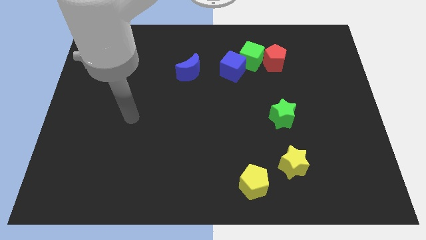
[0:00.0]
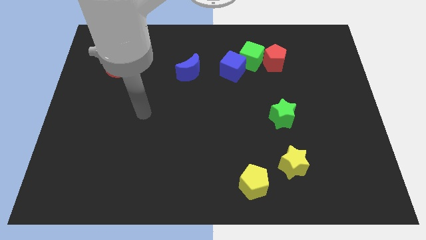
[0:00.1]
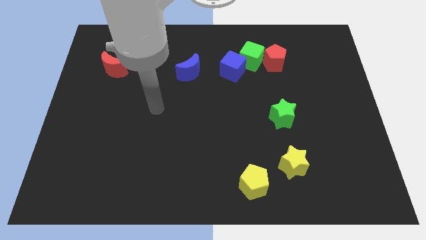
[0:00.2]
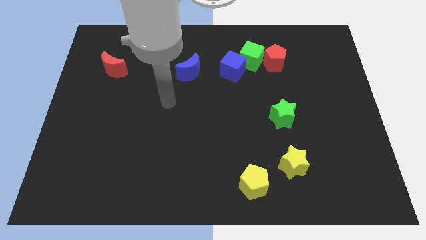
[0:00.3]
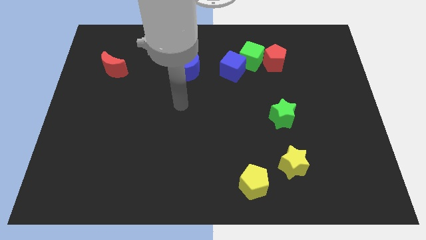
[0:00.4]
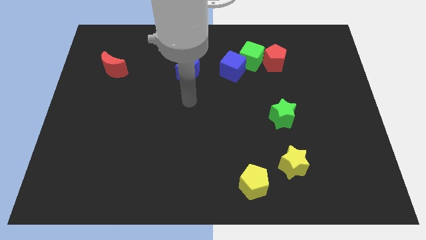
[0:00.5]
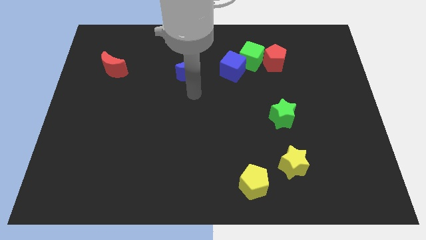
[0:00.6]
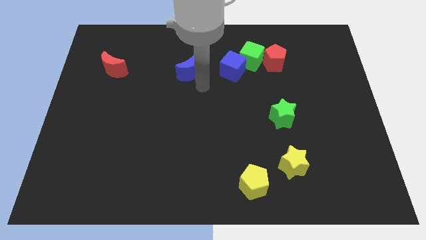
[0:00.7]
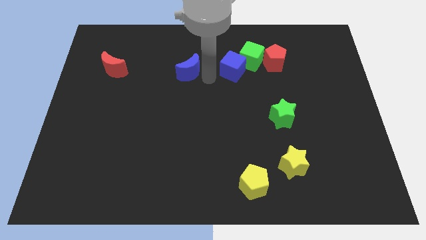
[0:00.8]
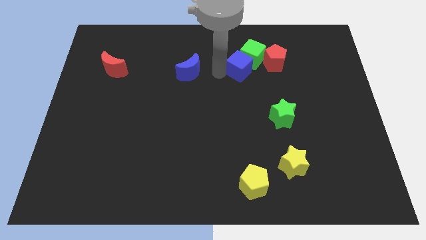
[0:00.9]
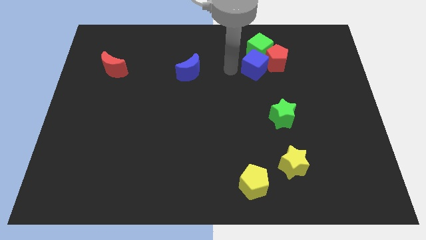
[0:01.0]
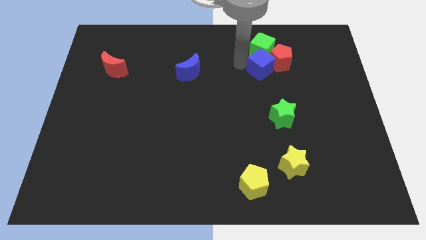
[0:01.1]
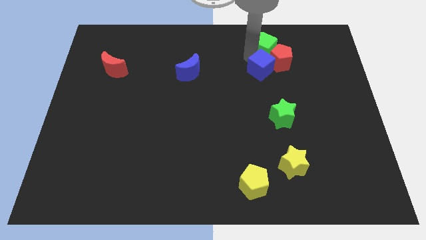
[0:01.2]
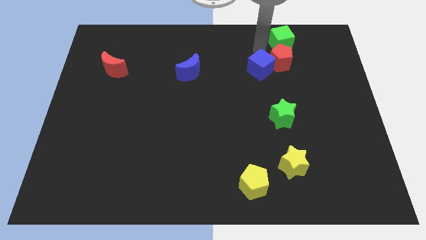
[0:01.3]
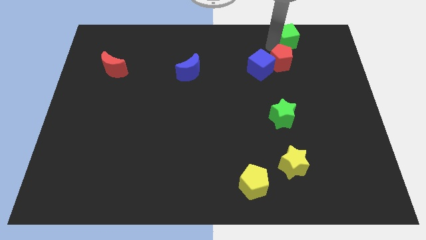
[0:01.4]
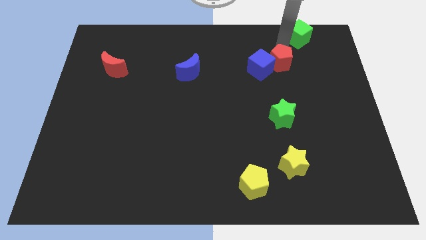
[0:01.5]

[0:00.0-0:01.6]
pull the red pentagon apart from the green cube

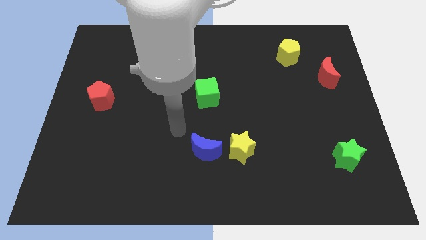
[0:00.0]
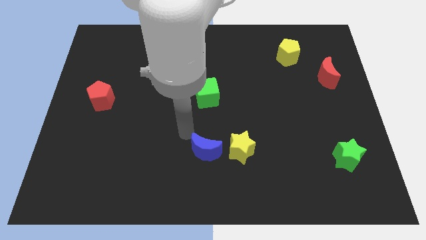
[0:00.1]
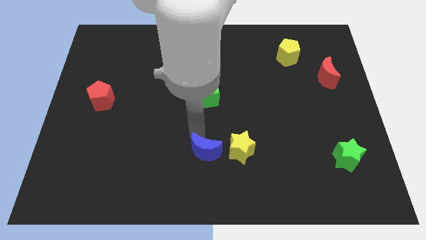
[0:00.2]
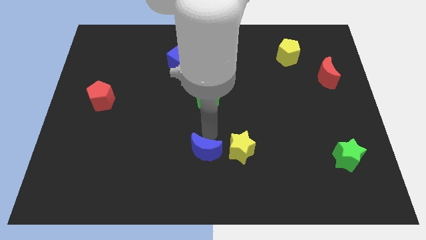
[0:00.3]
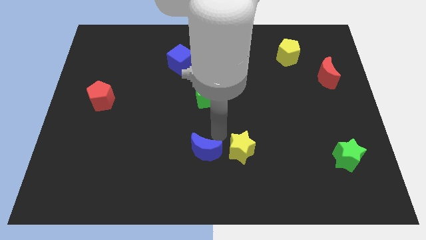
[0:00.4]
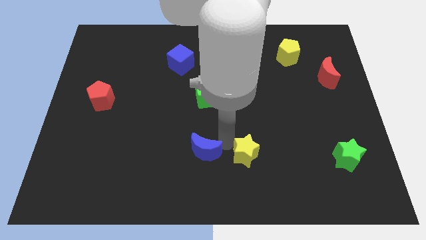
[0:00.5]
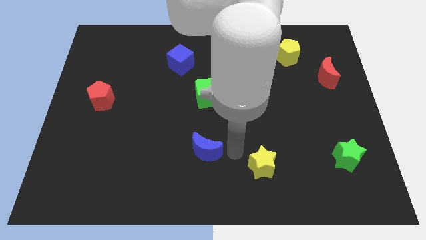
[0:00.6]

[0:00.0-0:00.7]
move the blue moon away from the yellow star

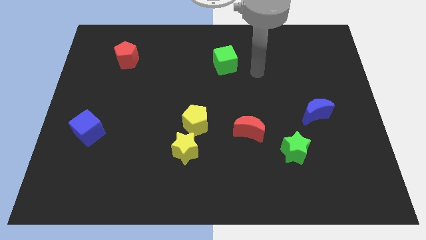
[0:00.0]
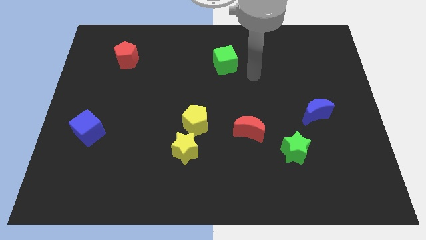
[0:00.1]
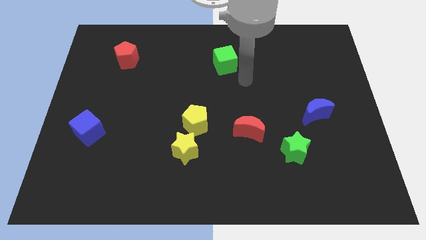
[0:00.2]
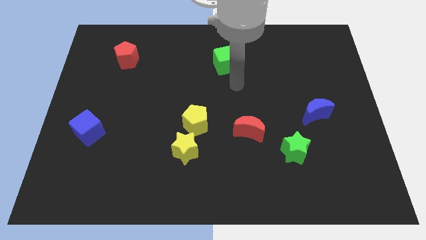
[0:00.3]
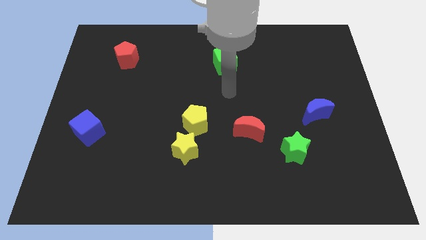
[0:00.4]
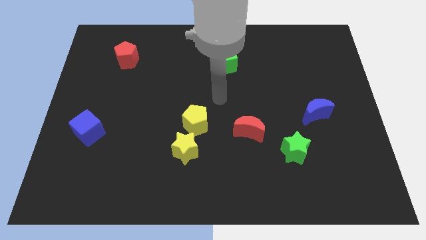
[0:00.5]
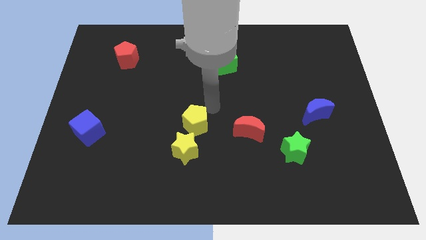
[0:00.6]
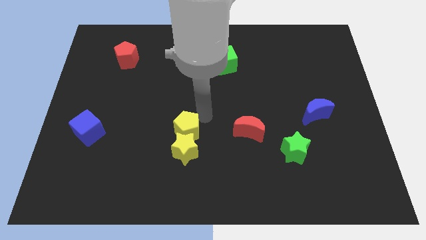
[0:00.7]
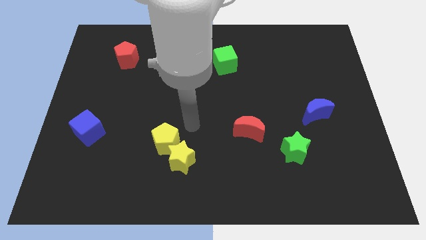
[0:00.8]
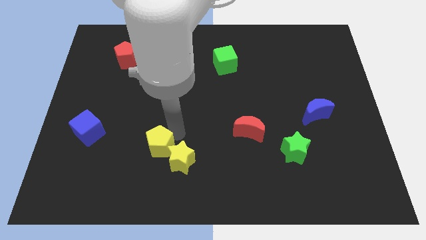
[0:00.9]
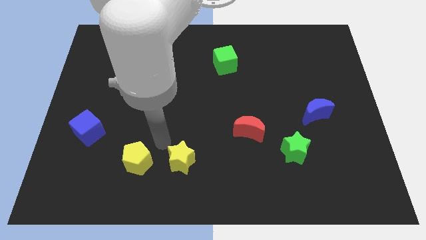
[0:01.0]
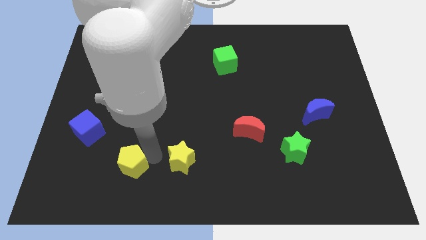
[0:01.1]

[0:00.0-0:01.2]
separate the yellow star from the yellow pentagon

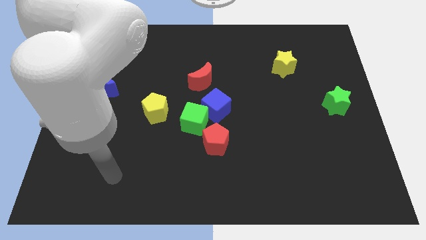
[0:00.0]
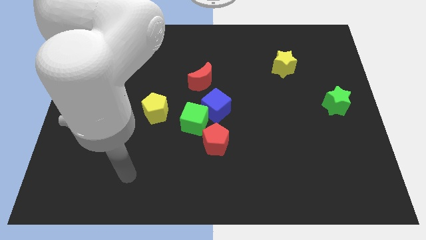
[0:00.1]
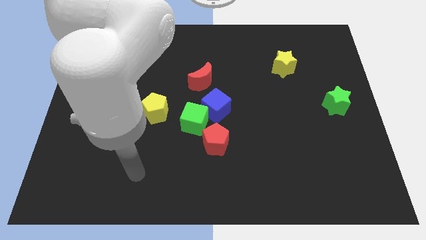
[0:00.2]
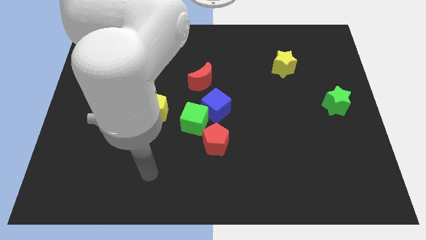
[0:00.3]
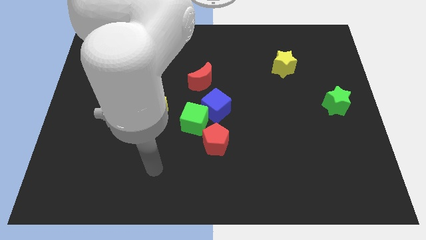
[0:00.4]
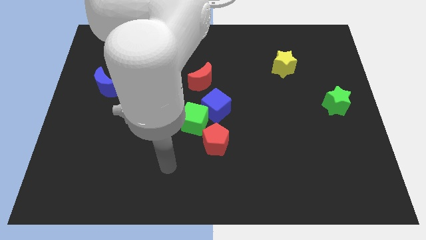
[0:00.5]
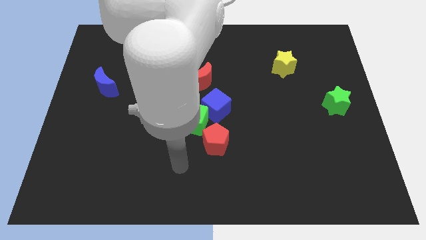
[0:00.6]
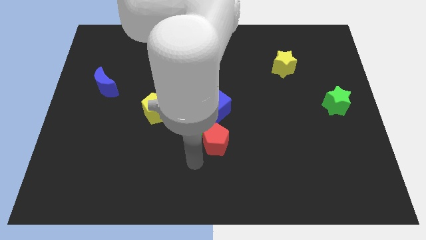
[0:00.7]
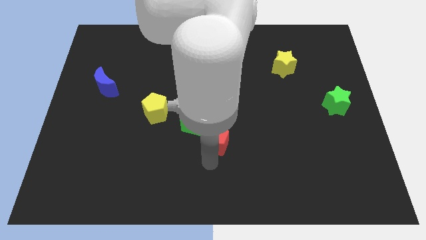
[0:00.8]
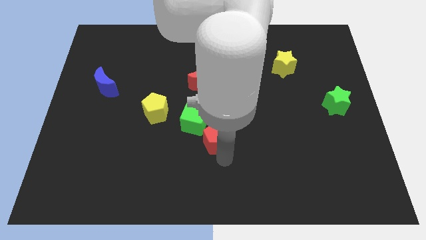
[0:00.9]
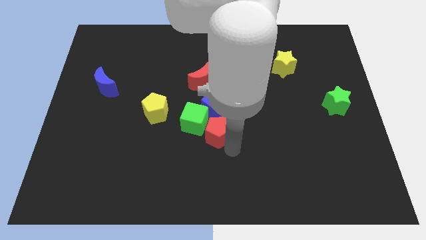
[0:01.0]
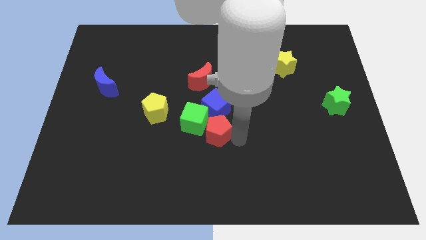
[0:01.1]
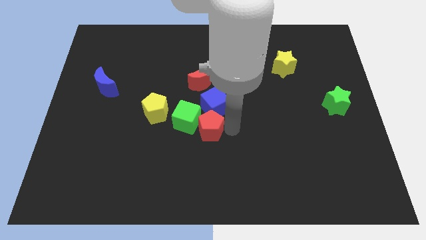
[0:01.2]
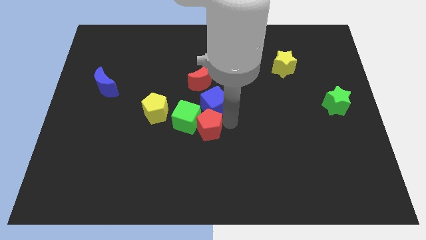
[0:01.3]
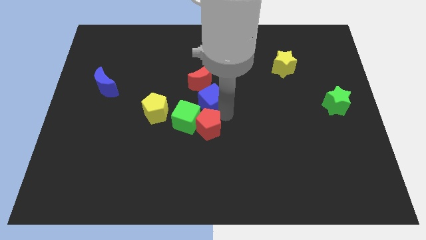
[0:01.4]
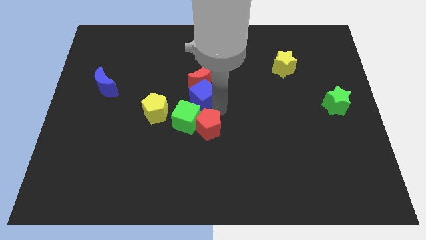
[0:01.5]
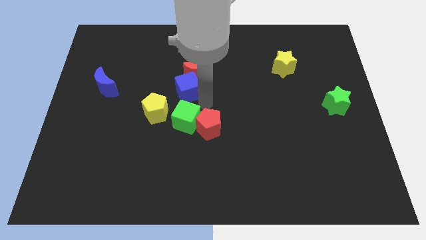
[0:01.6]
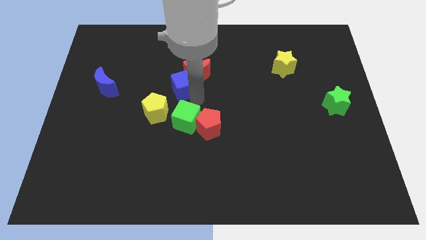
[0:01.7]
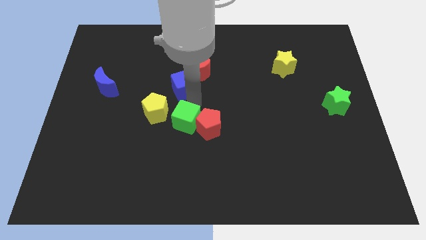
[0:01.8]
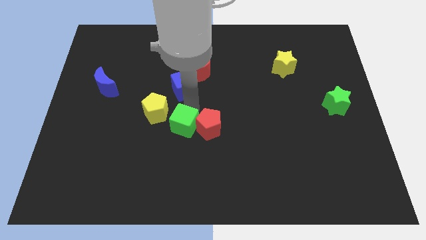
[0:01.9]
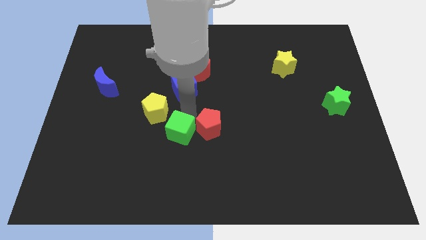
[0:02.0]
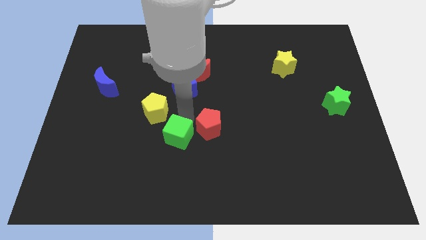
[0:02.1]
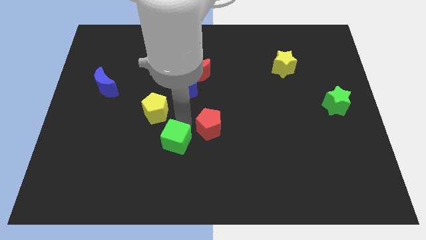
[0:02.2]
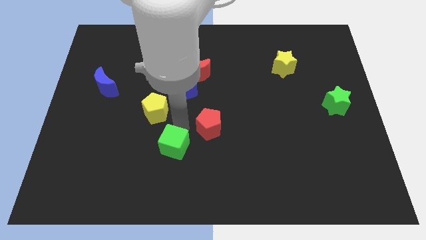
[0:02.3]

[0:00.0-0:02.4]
separate the green cube from the clump

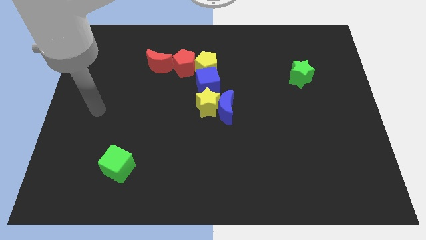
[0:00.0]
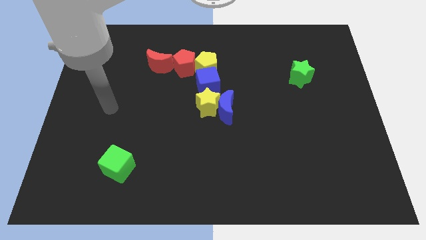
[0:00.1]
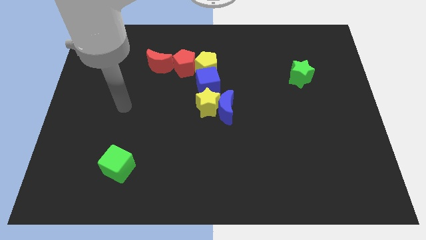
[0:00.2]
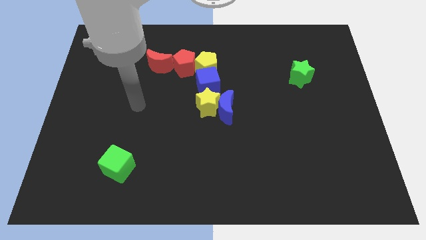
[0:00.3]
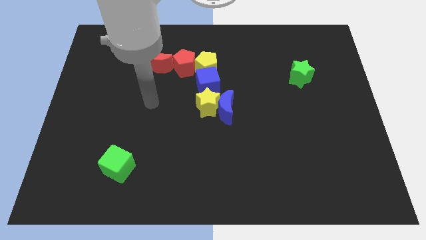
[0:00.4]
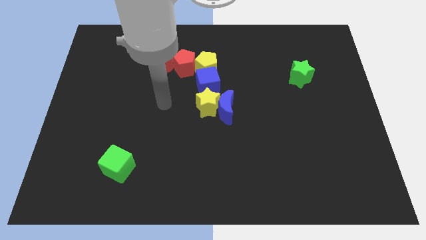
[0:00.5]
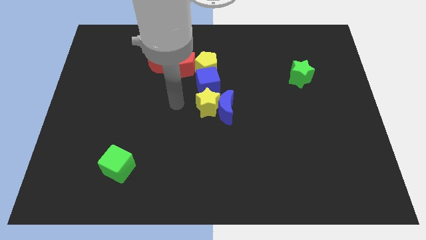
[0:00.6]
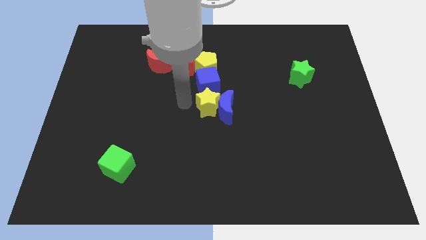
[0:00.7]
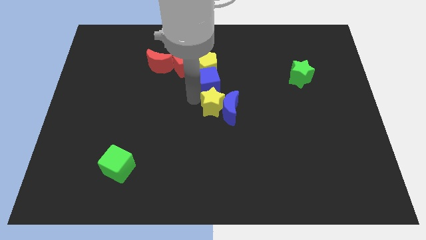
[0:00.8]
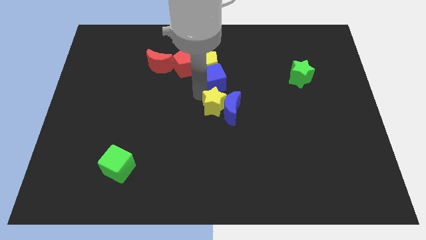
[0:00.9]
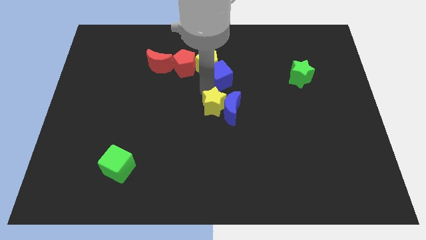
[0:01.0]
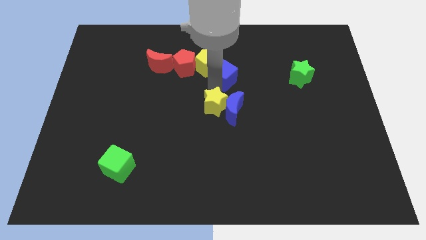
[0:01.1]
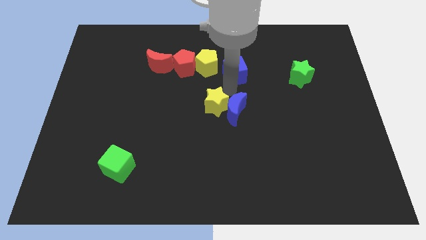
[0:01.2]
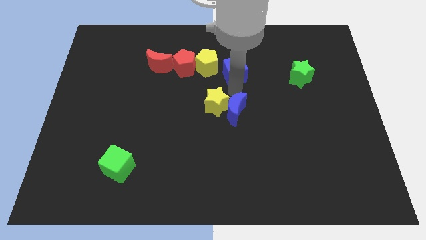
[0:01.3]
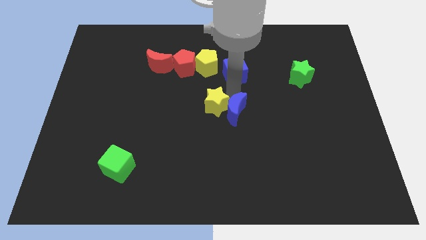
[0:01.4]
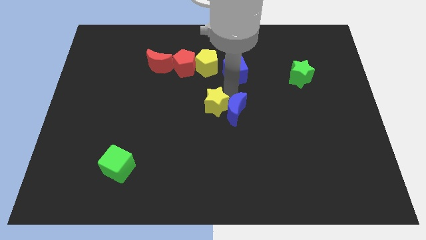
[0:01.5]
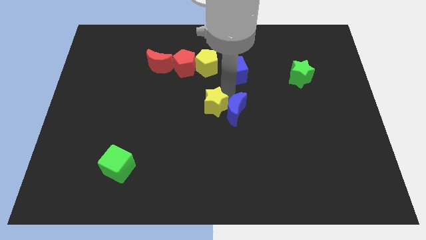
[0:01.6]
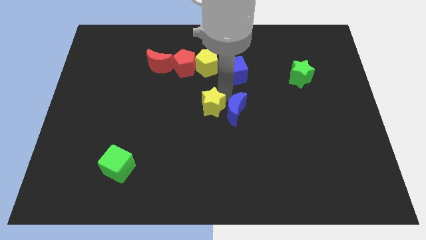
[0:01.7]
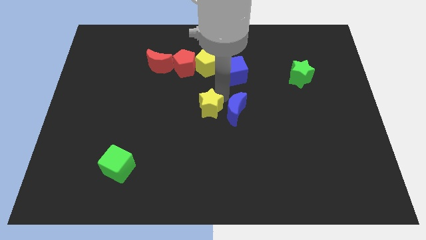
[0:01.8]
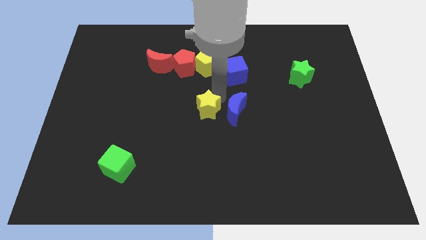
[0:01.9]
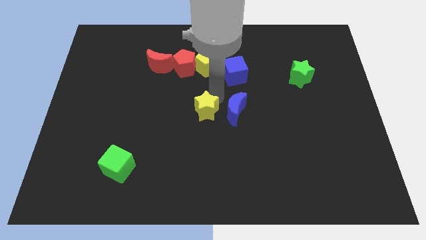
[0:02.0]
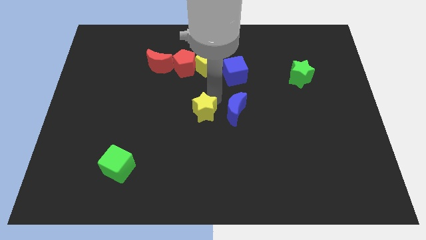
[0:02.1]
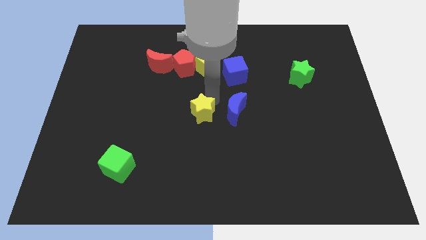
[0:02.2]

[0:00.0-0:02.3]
pull the yellow star apart from the blue moon and blue cube

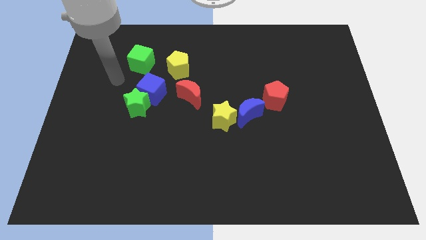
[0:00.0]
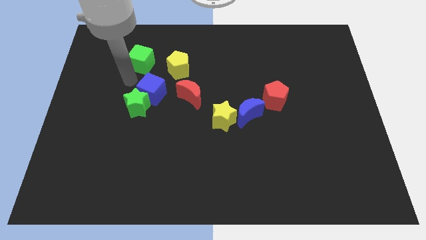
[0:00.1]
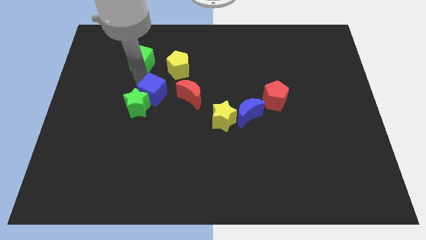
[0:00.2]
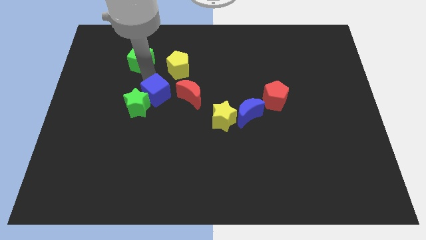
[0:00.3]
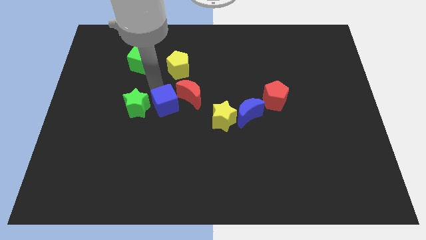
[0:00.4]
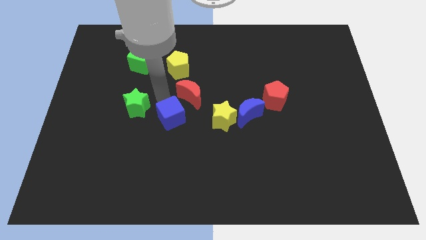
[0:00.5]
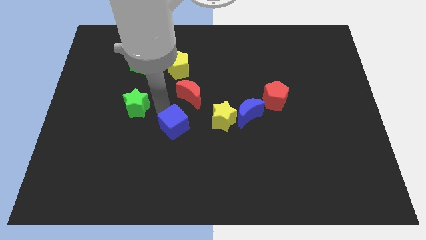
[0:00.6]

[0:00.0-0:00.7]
pull the green star apart from the blue cube

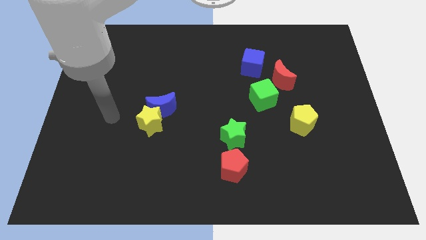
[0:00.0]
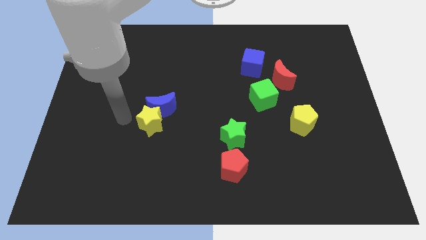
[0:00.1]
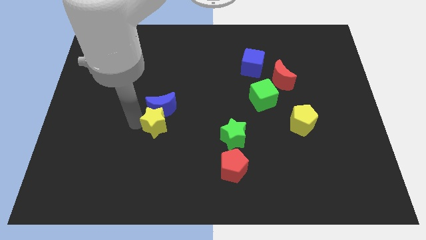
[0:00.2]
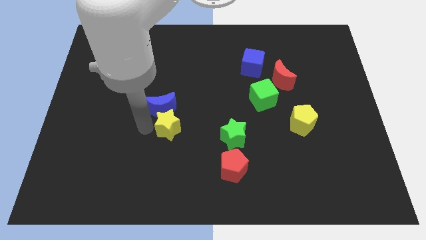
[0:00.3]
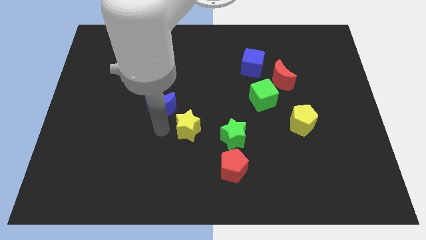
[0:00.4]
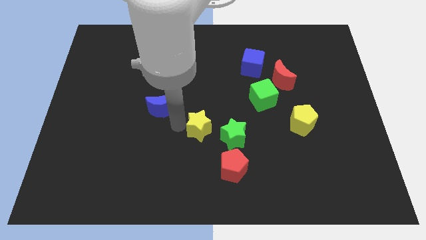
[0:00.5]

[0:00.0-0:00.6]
pull the blue moon apart from the yellow star
